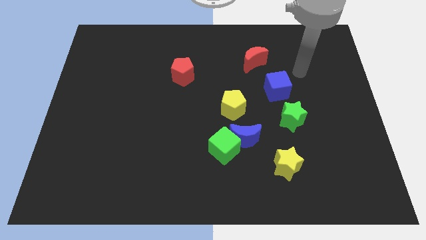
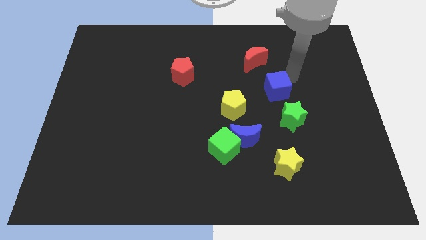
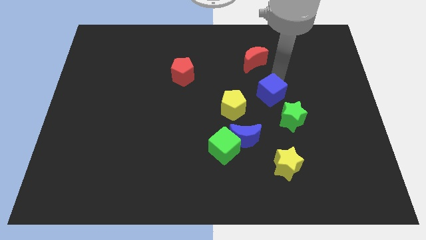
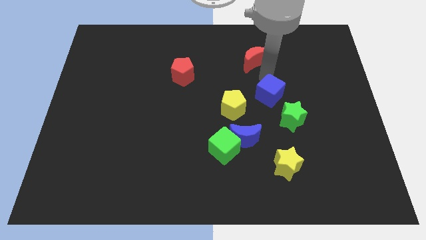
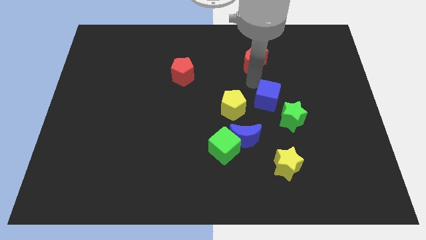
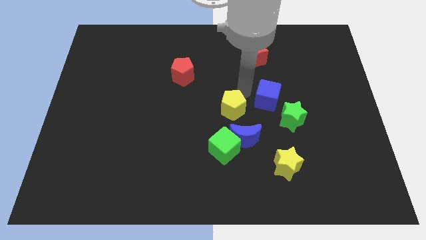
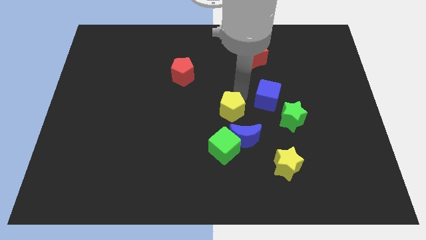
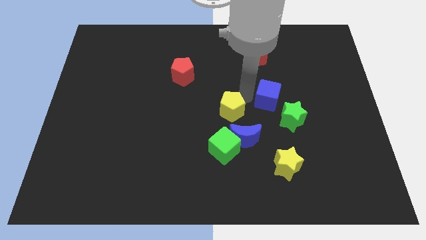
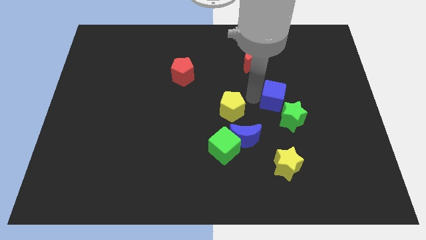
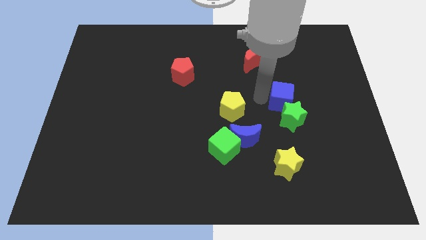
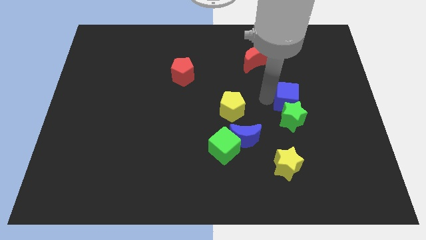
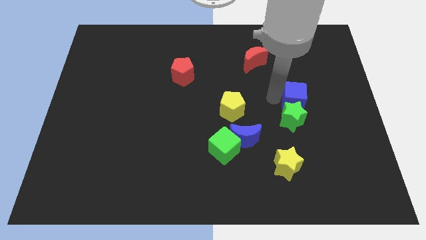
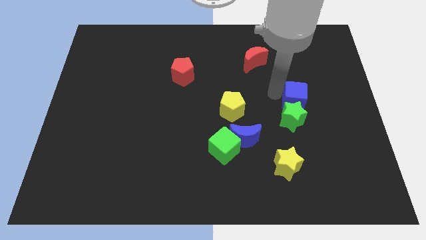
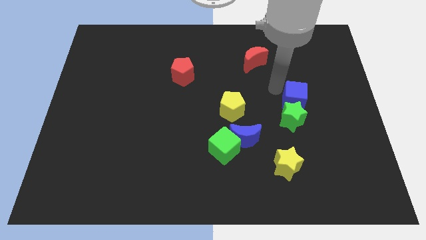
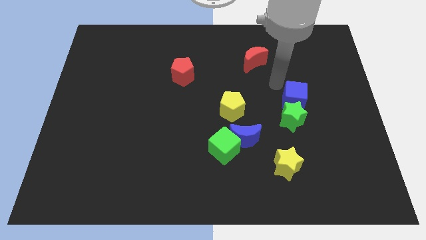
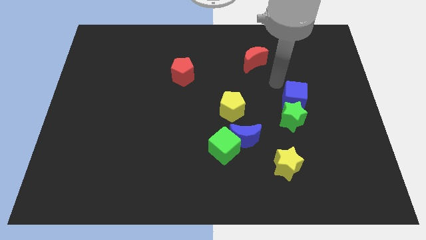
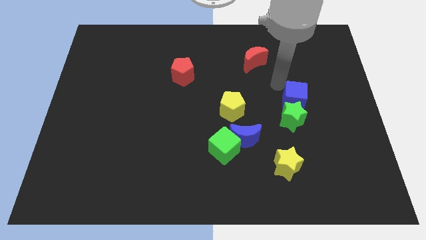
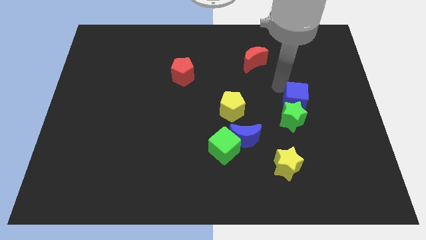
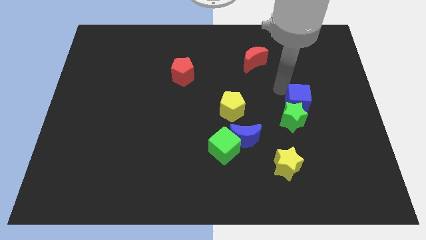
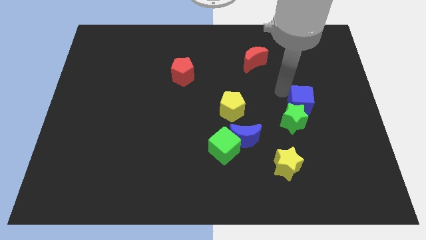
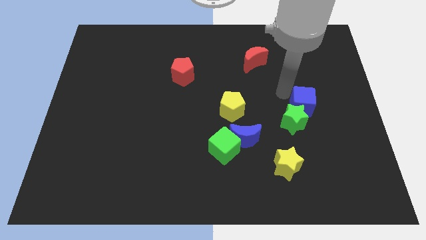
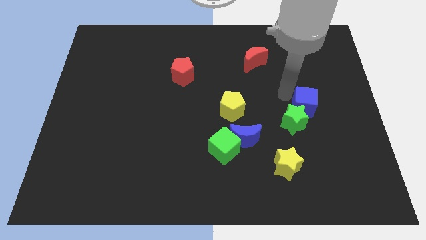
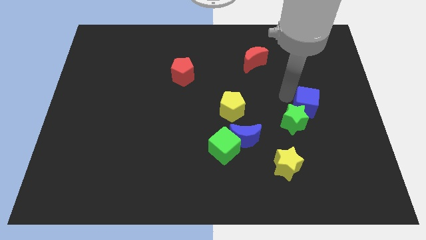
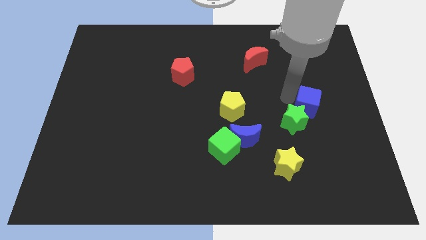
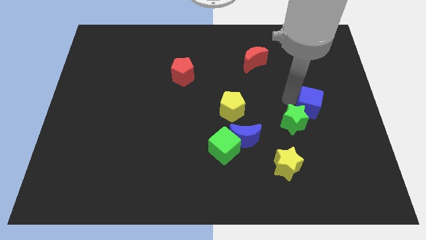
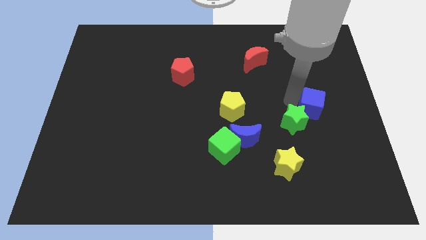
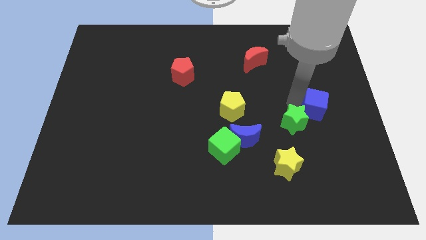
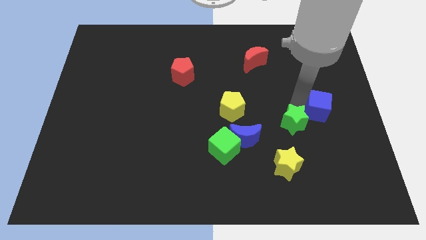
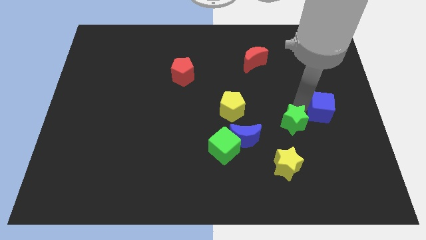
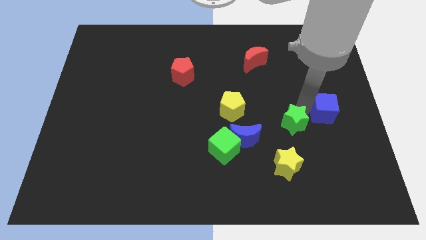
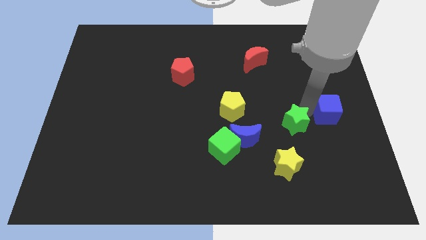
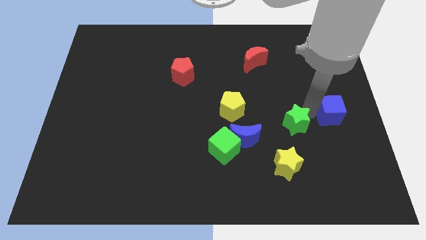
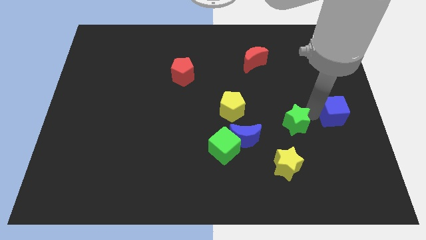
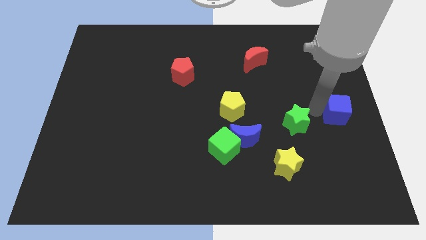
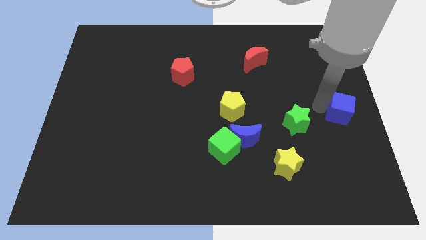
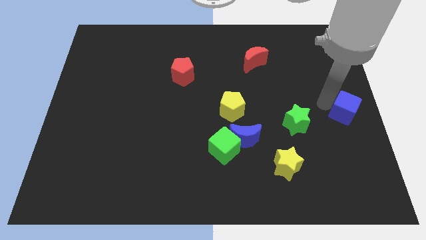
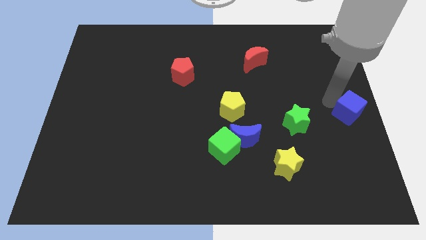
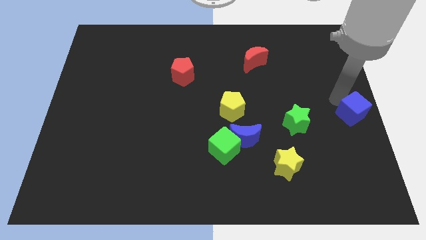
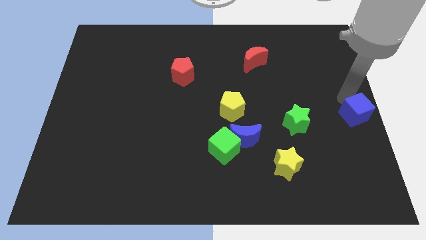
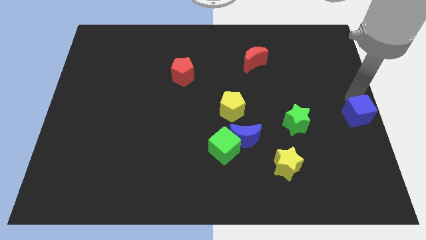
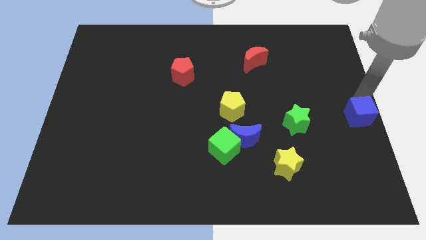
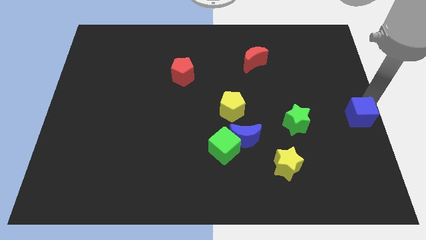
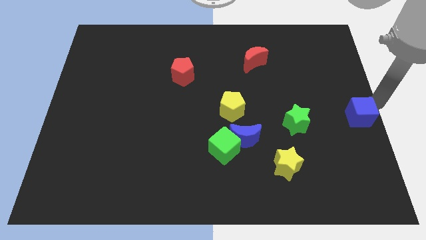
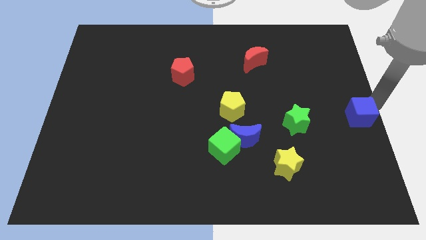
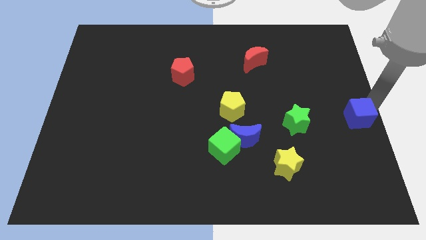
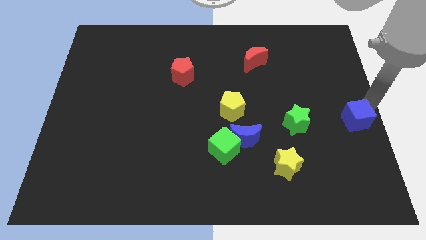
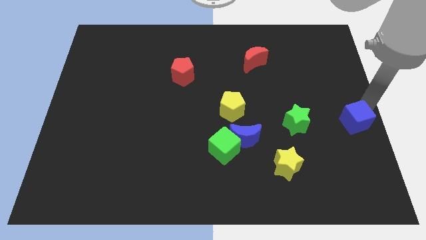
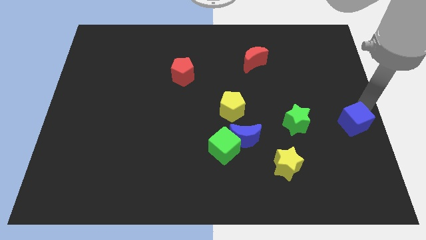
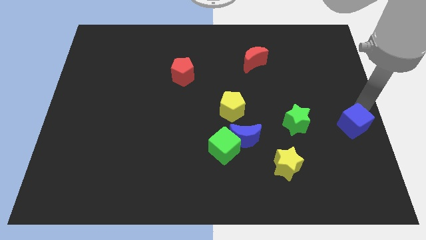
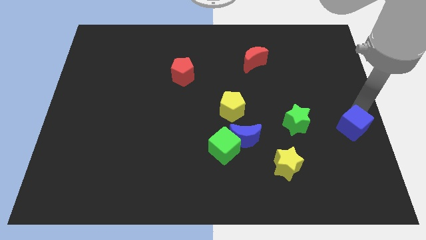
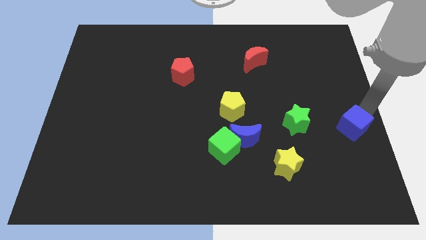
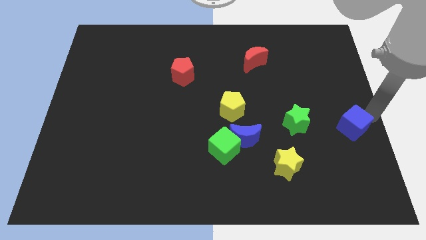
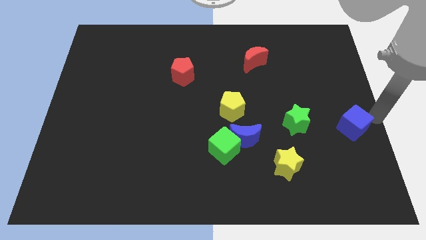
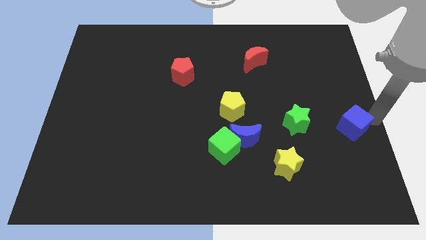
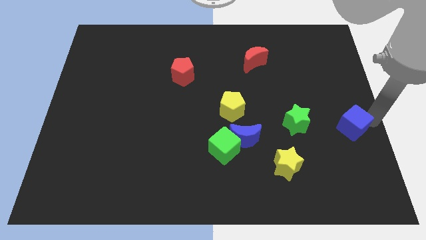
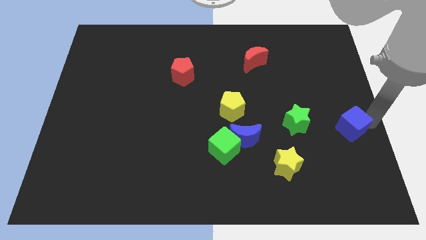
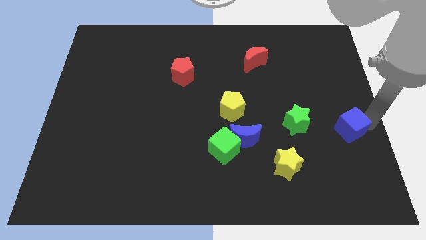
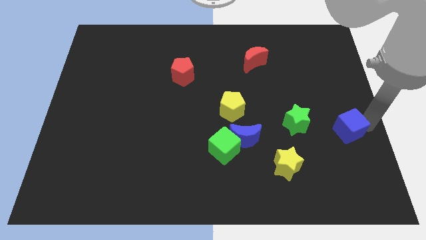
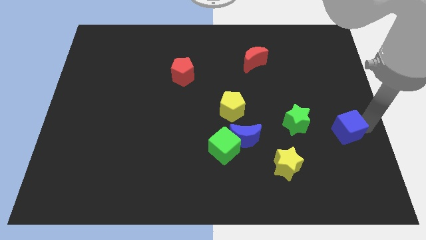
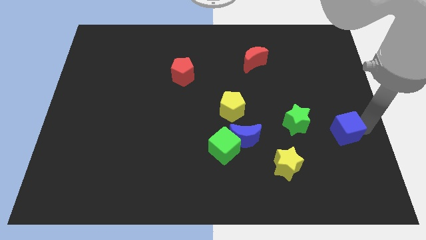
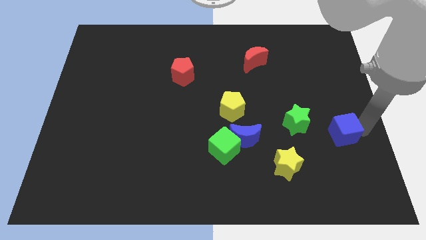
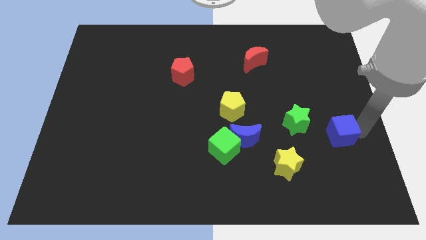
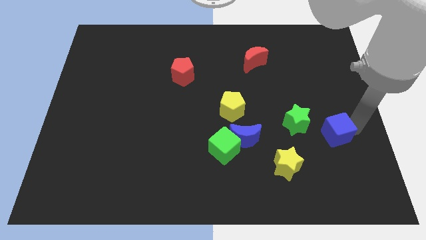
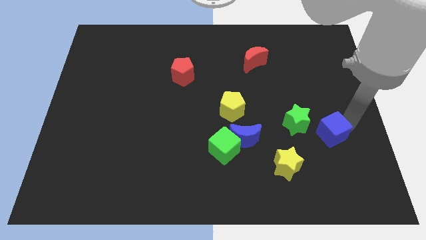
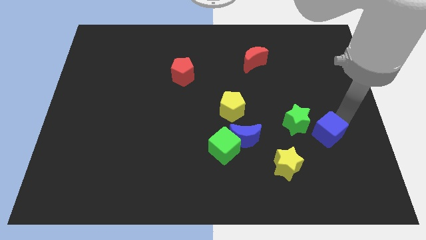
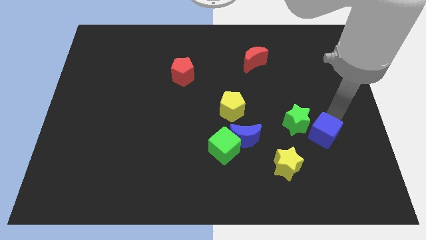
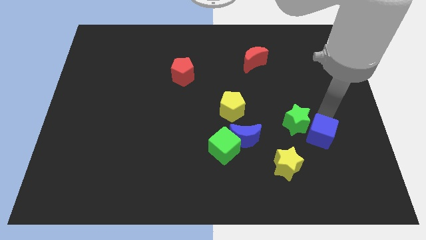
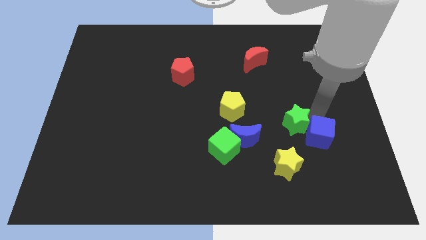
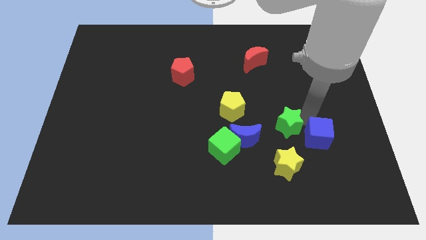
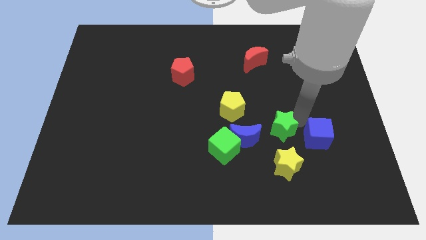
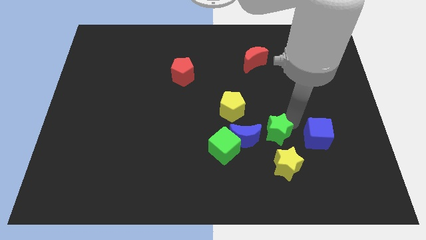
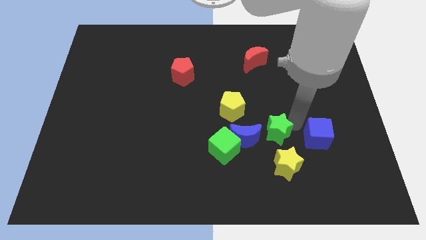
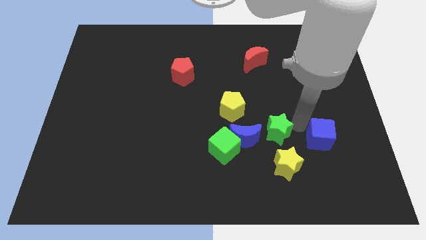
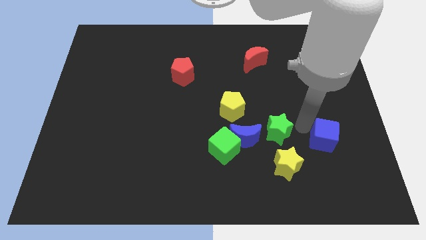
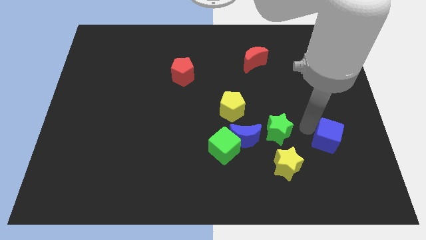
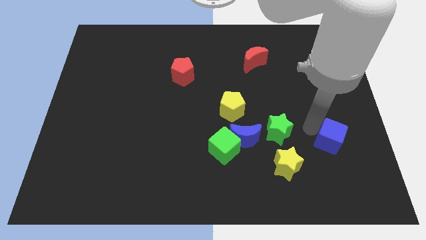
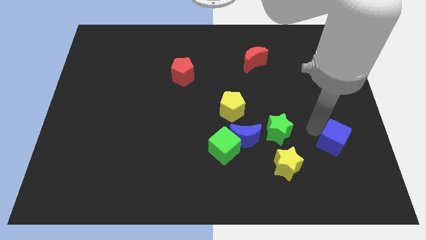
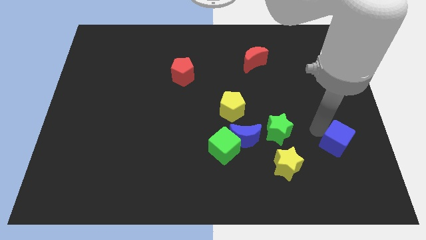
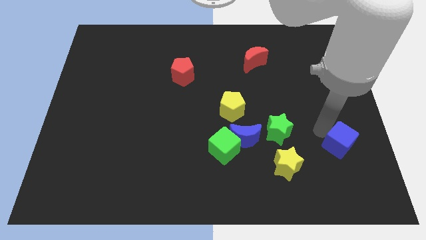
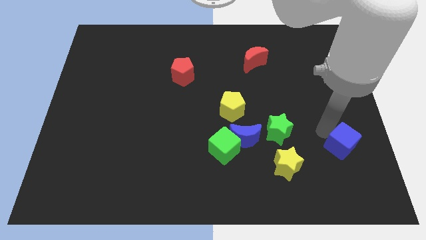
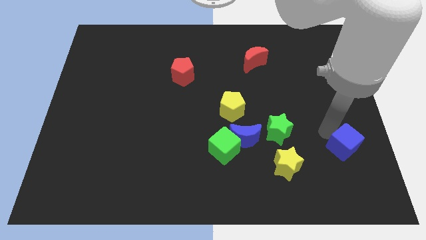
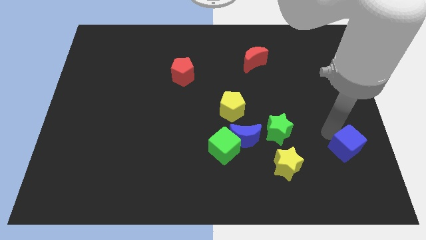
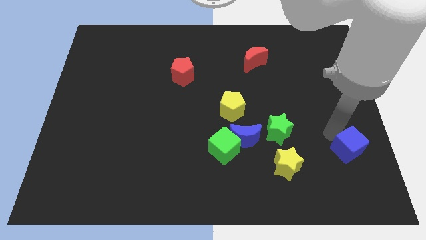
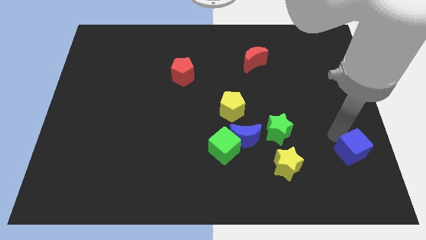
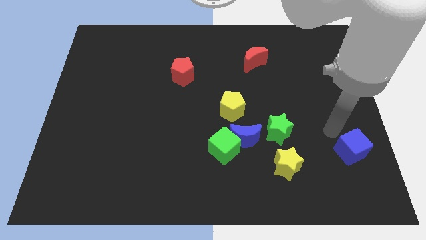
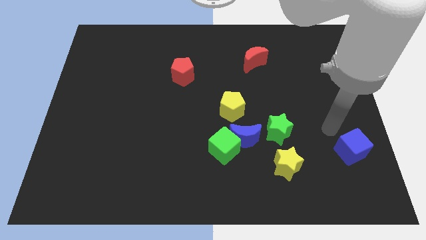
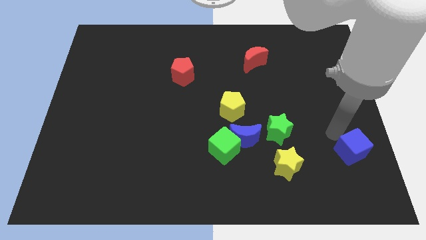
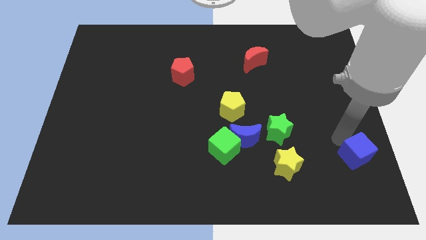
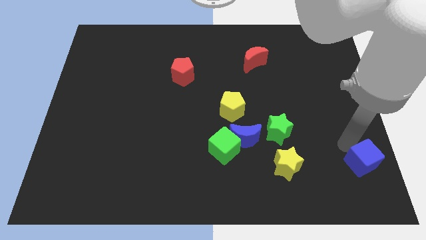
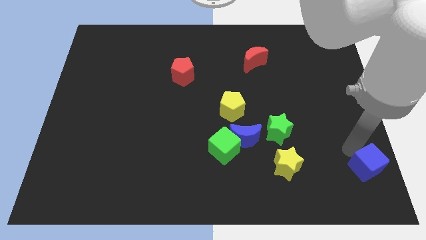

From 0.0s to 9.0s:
push the blue cube to the bottom right of the board
